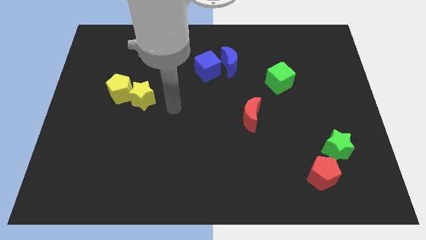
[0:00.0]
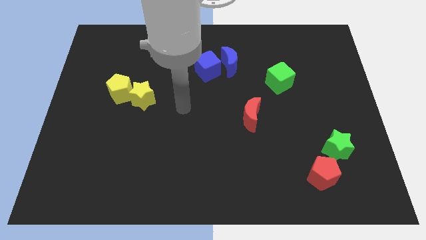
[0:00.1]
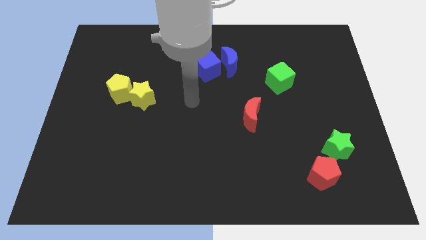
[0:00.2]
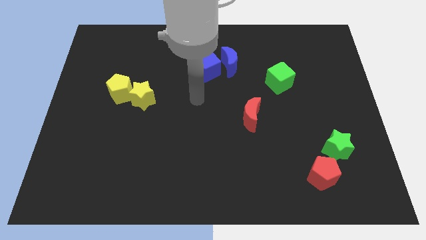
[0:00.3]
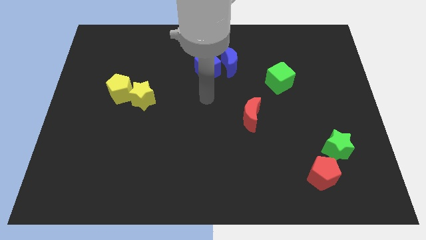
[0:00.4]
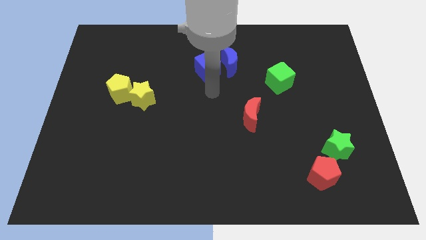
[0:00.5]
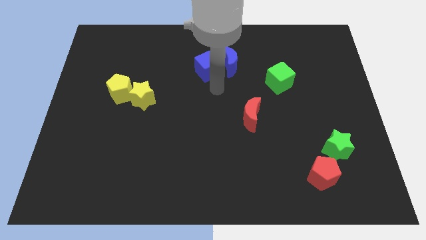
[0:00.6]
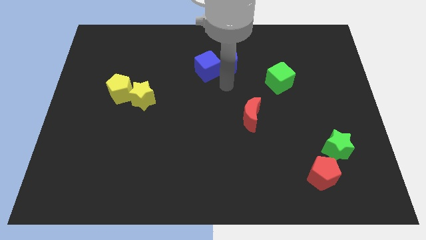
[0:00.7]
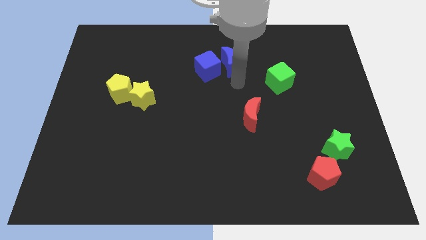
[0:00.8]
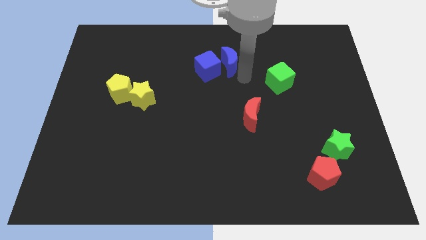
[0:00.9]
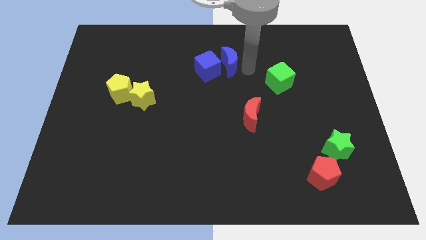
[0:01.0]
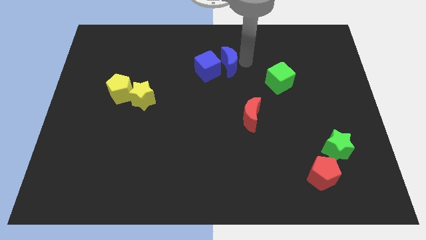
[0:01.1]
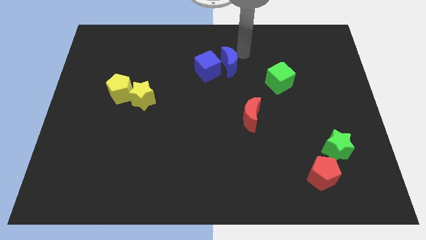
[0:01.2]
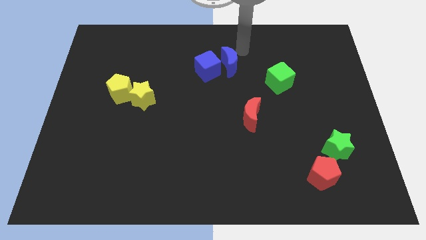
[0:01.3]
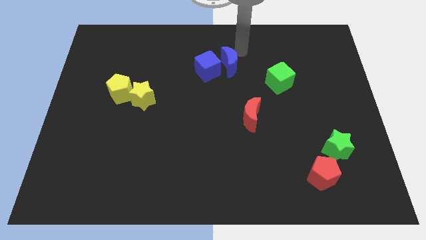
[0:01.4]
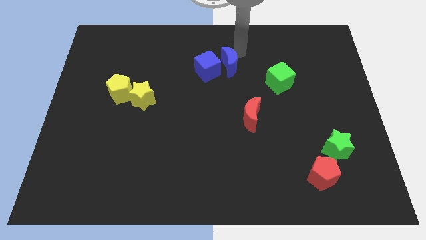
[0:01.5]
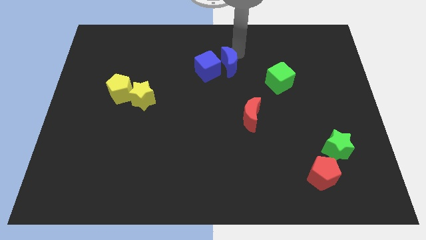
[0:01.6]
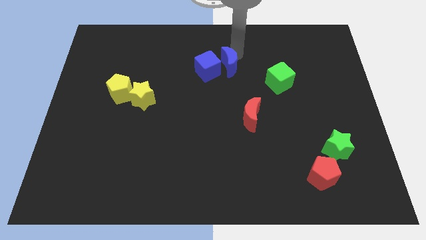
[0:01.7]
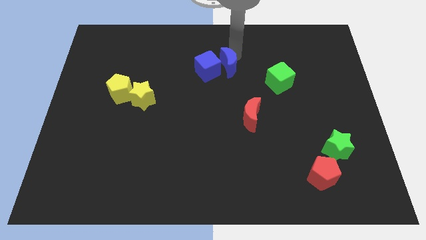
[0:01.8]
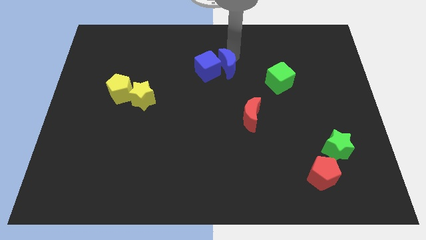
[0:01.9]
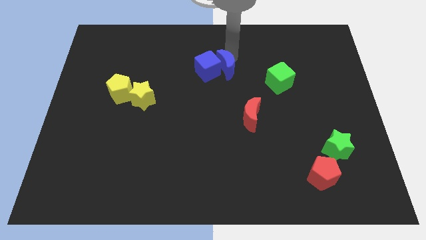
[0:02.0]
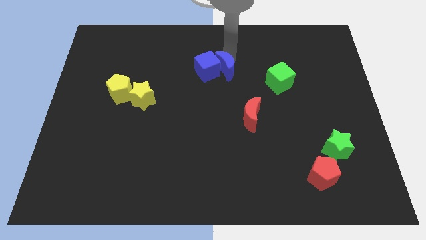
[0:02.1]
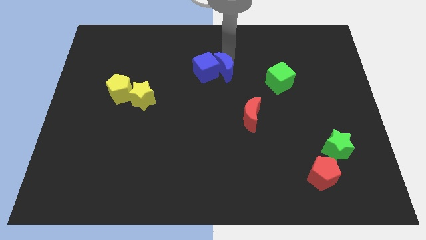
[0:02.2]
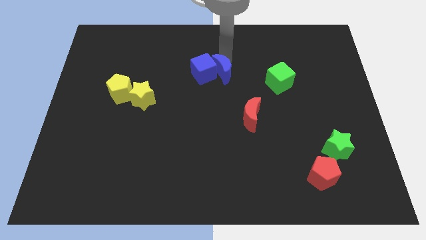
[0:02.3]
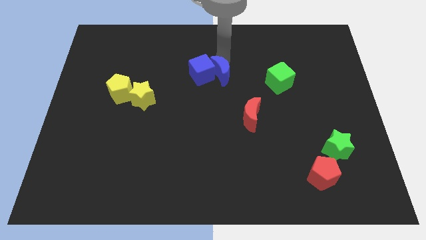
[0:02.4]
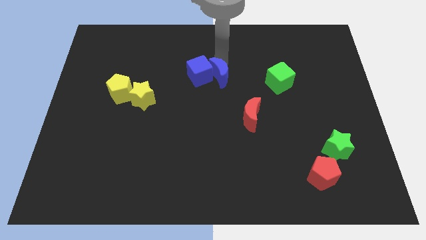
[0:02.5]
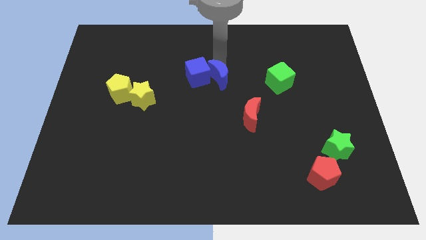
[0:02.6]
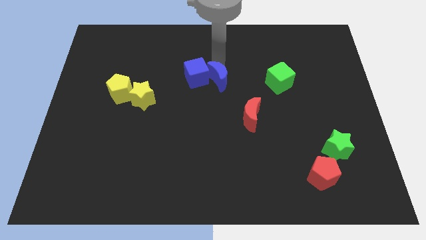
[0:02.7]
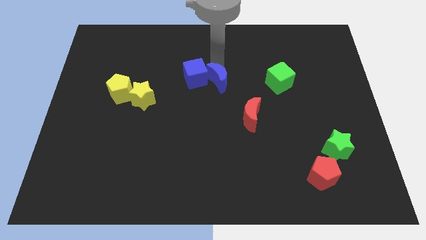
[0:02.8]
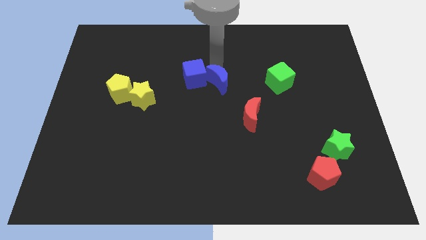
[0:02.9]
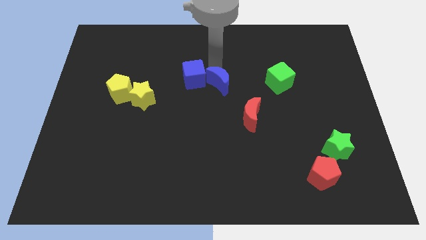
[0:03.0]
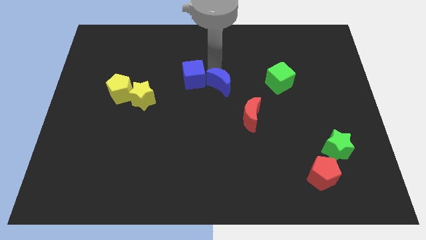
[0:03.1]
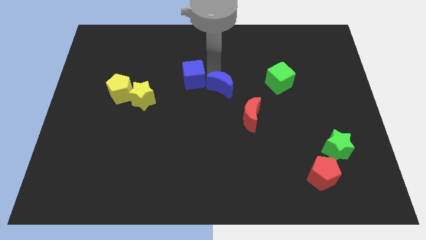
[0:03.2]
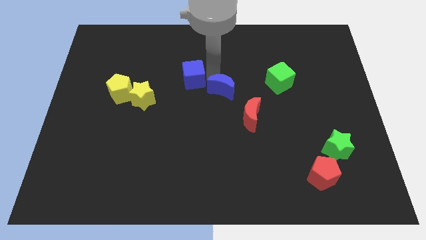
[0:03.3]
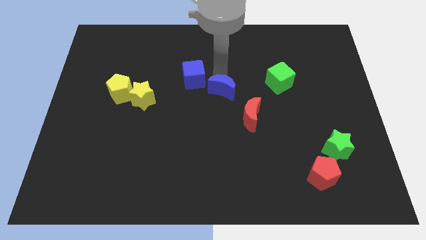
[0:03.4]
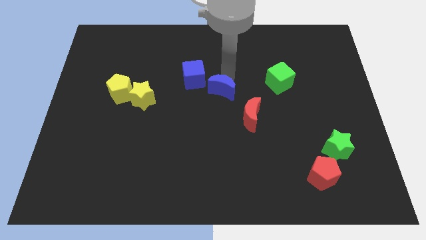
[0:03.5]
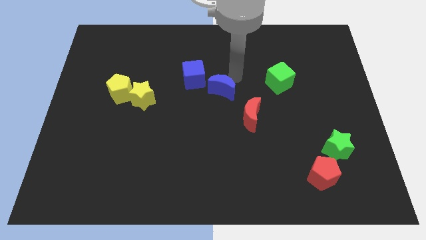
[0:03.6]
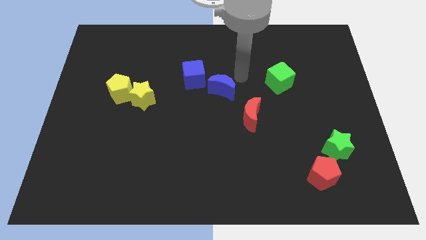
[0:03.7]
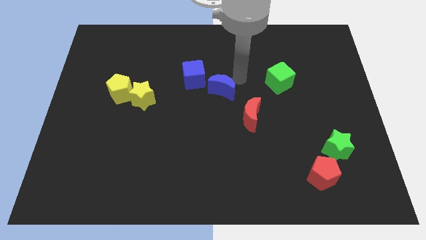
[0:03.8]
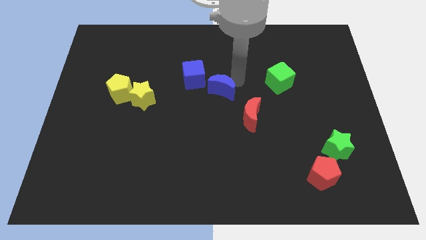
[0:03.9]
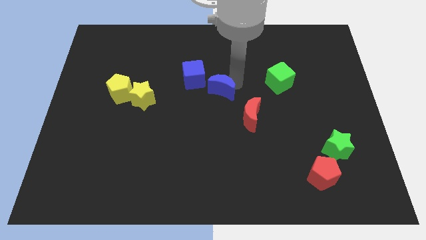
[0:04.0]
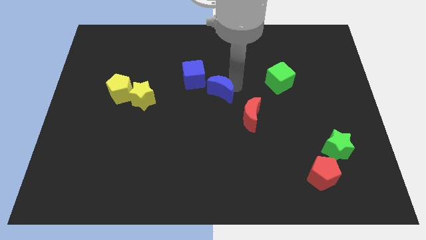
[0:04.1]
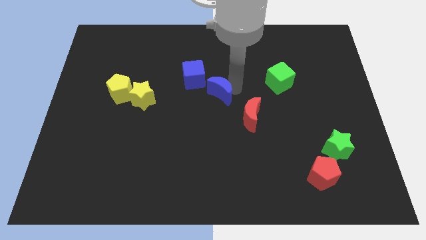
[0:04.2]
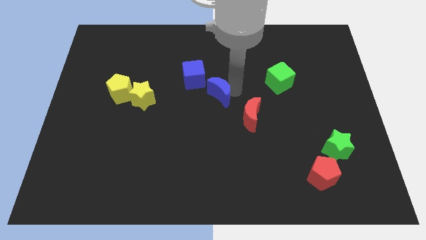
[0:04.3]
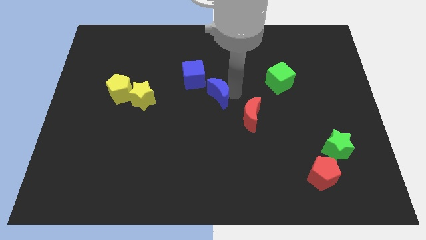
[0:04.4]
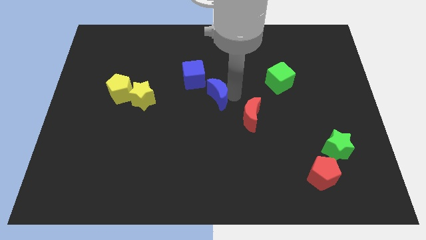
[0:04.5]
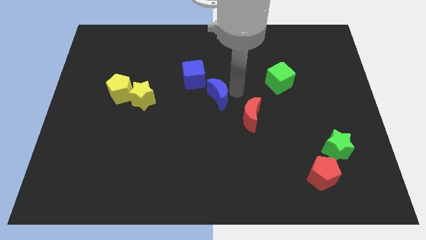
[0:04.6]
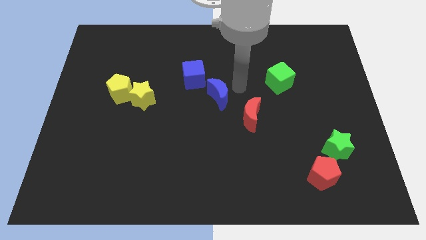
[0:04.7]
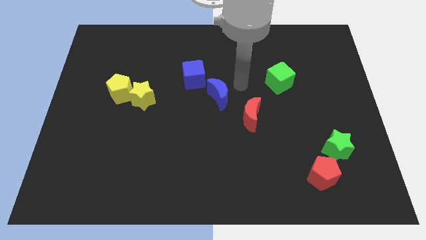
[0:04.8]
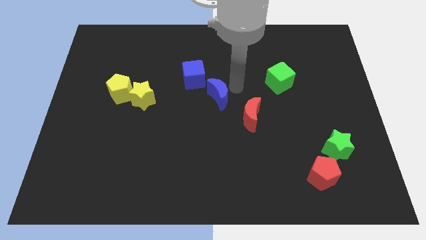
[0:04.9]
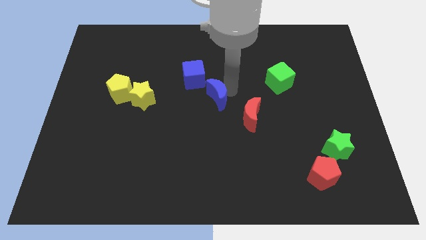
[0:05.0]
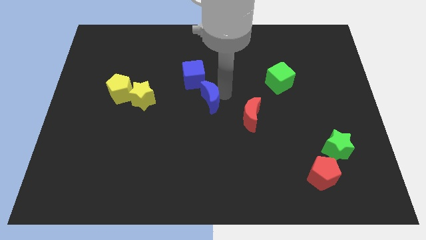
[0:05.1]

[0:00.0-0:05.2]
put the blue moon below the blue cube

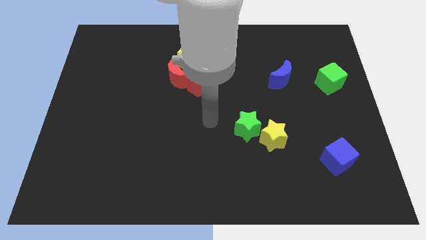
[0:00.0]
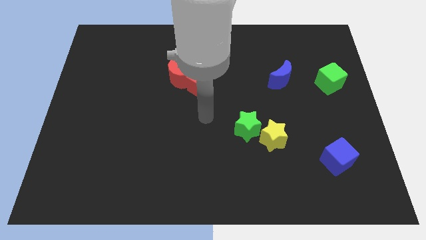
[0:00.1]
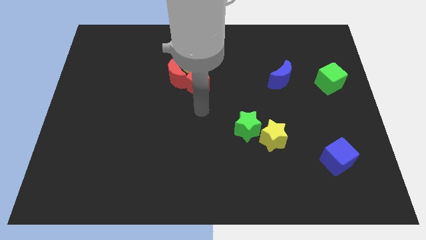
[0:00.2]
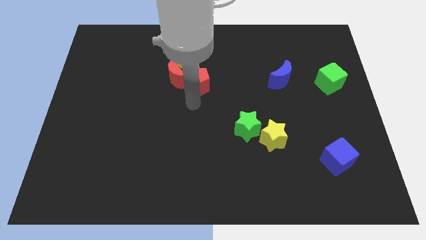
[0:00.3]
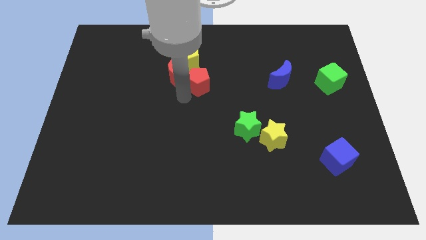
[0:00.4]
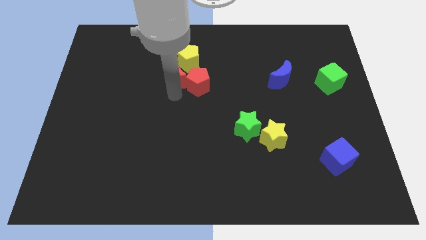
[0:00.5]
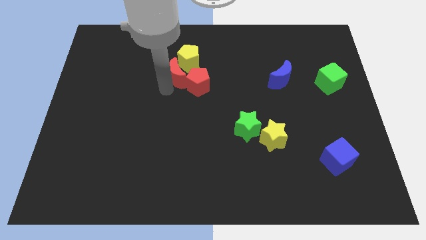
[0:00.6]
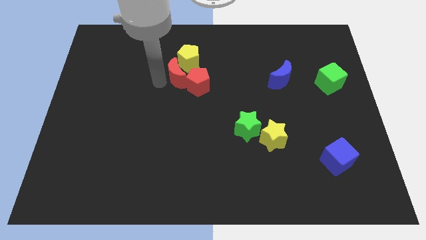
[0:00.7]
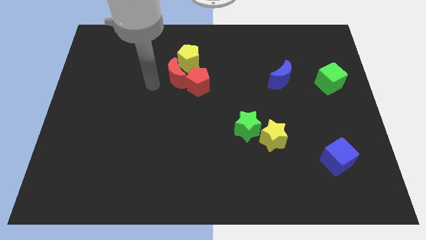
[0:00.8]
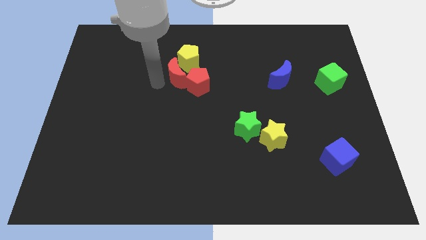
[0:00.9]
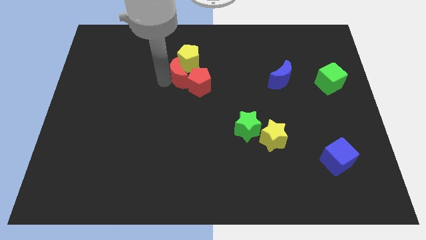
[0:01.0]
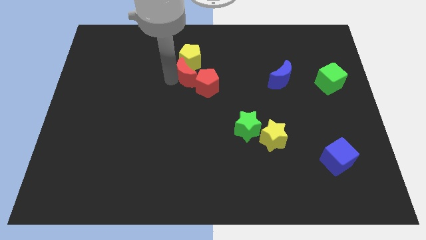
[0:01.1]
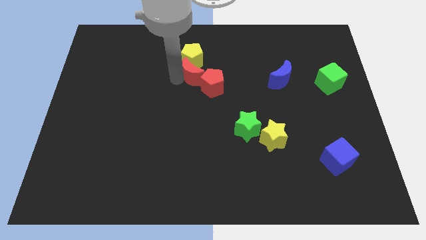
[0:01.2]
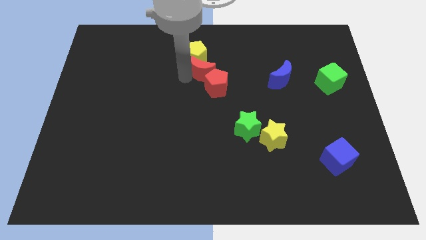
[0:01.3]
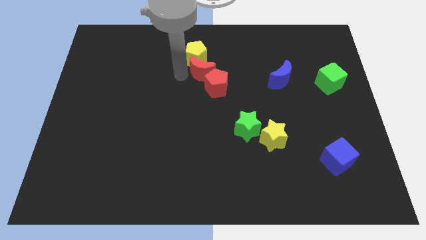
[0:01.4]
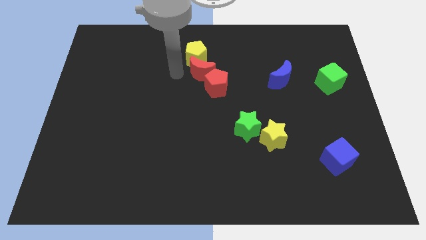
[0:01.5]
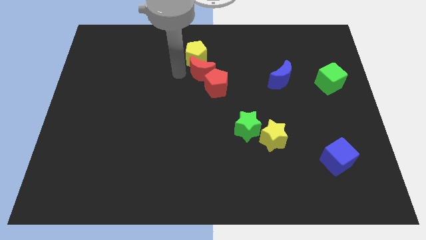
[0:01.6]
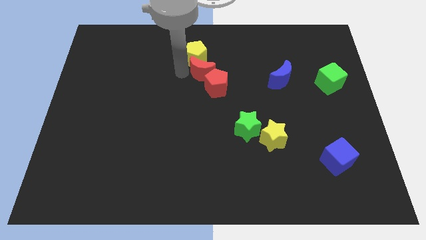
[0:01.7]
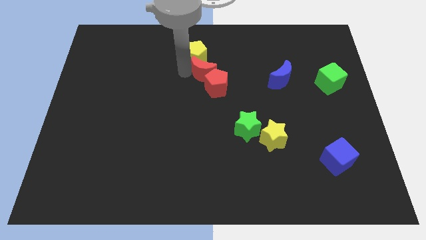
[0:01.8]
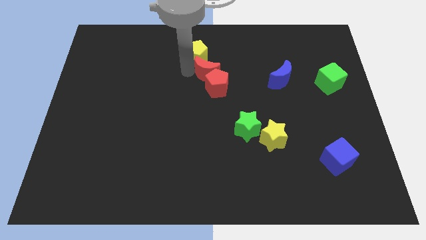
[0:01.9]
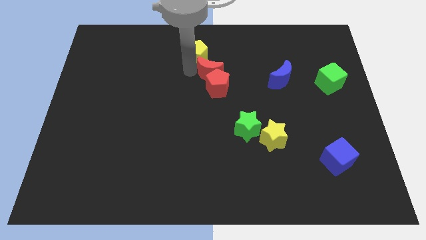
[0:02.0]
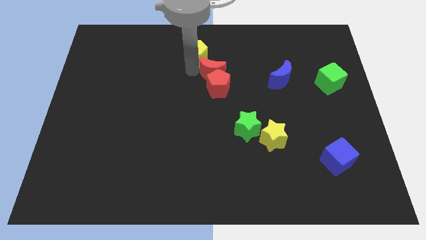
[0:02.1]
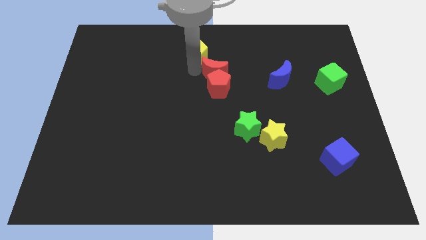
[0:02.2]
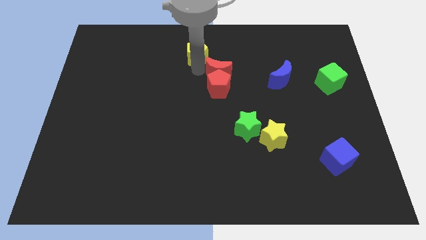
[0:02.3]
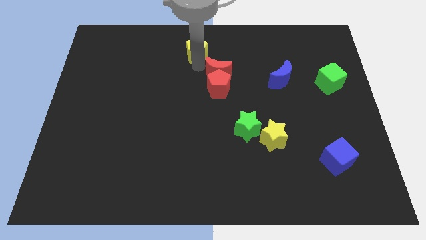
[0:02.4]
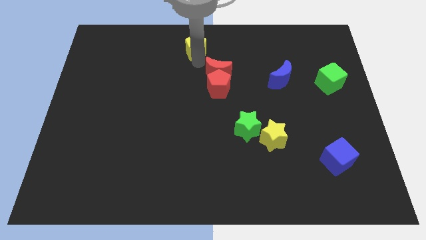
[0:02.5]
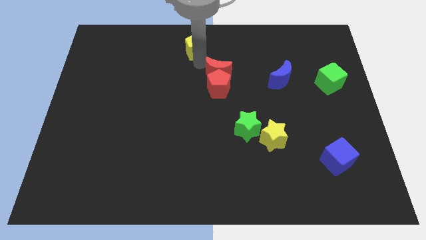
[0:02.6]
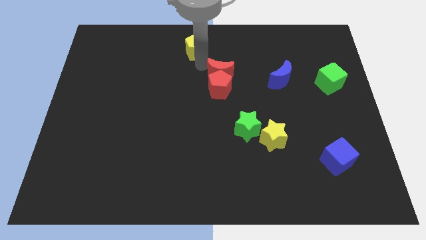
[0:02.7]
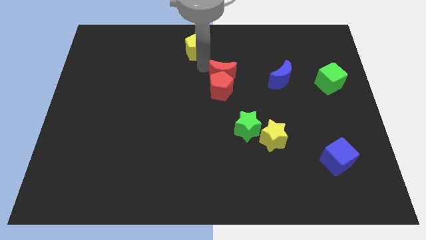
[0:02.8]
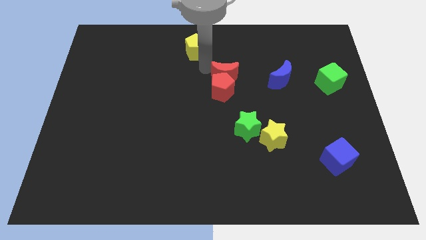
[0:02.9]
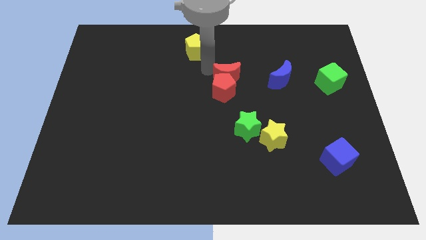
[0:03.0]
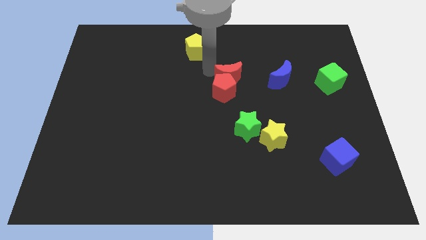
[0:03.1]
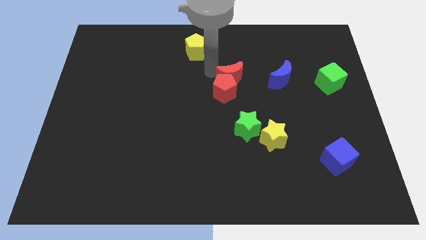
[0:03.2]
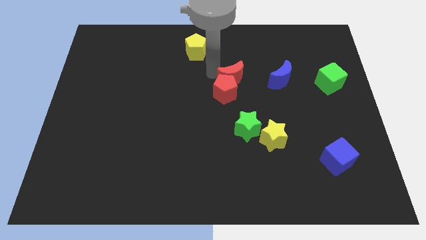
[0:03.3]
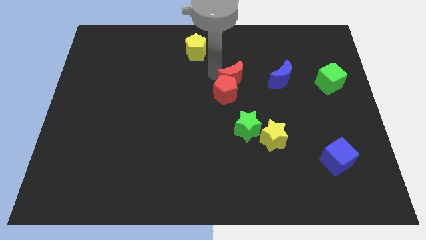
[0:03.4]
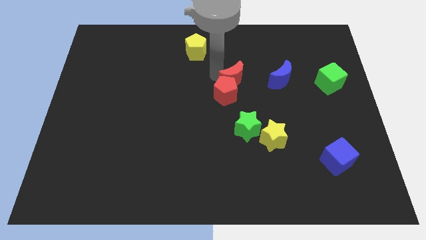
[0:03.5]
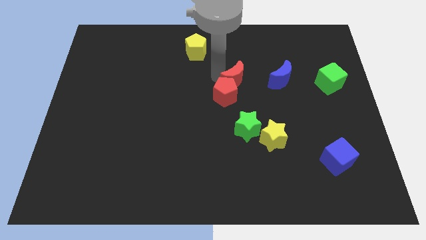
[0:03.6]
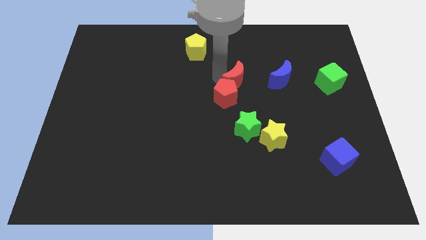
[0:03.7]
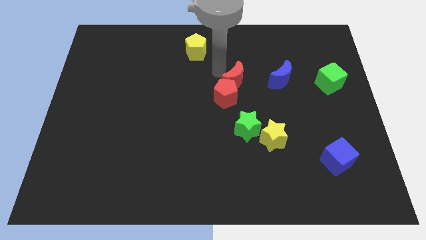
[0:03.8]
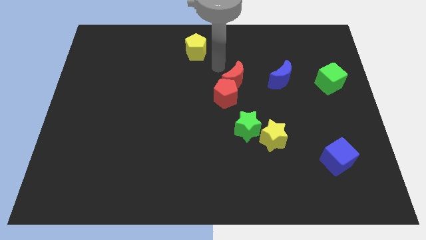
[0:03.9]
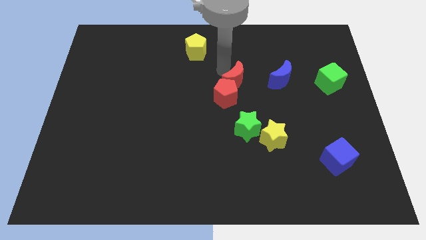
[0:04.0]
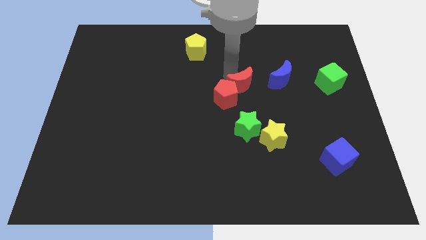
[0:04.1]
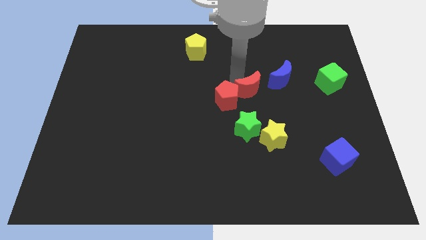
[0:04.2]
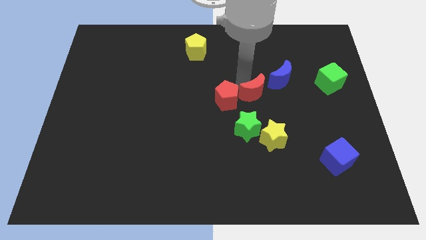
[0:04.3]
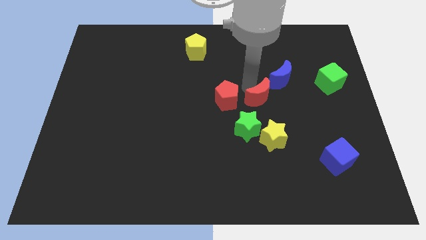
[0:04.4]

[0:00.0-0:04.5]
move the red moon diagonally up and to the right of the green star
